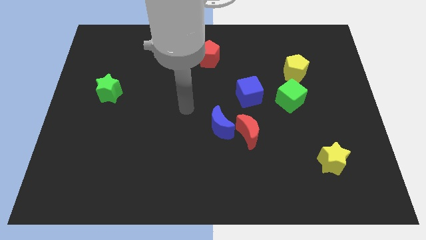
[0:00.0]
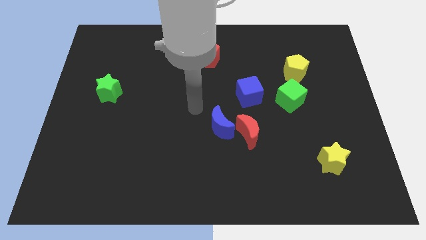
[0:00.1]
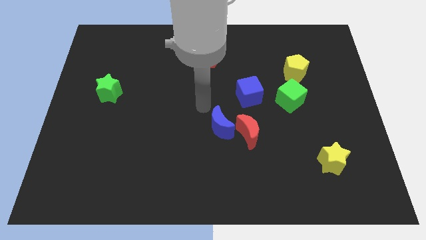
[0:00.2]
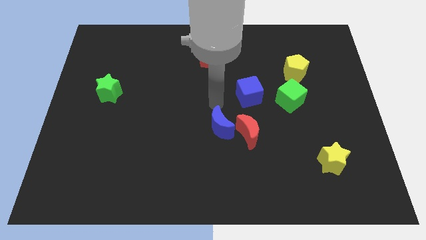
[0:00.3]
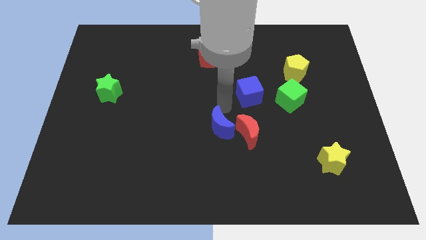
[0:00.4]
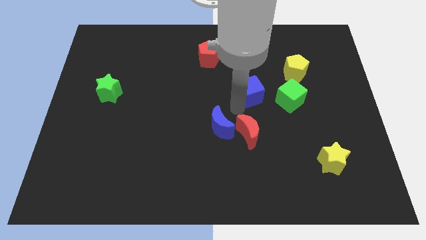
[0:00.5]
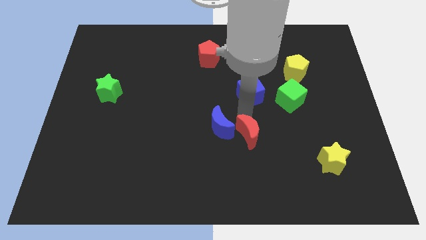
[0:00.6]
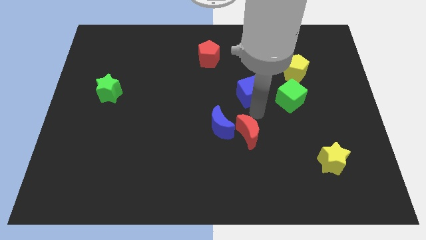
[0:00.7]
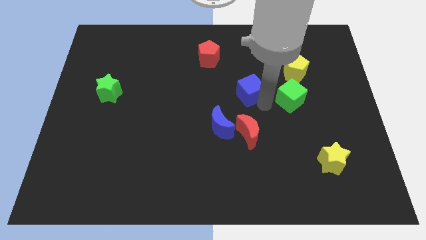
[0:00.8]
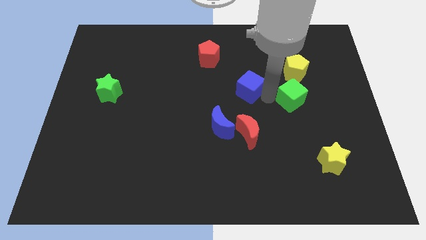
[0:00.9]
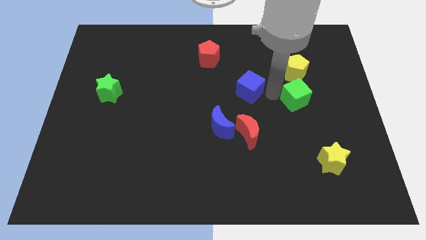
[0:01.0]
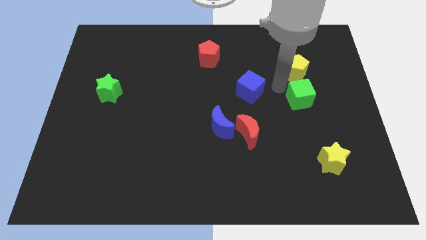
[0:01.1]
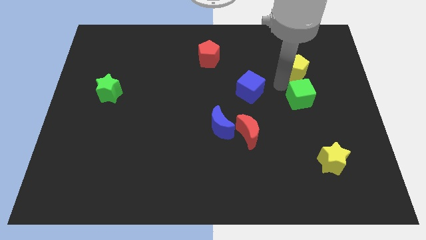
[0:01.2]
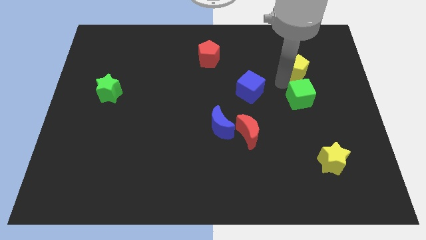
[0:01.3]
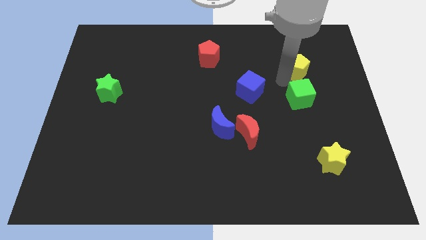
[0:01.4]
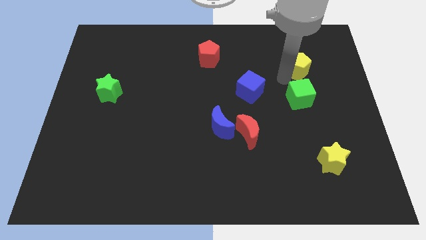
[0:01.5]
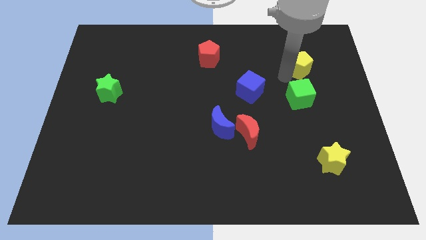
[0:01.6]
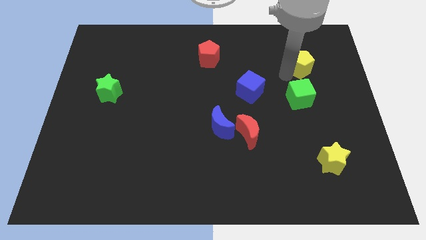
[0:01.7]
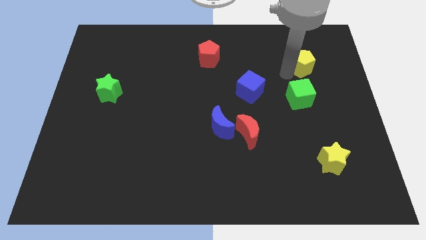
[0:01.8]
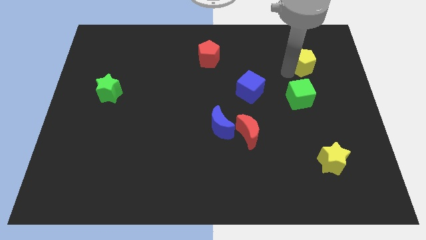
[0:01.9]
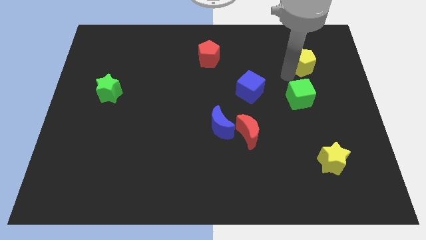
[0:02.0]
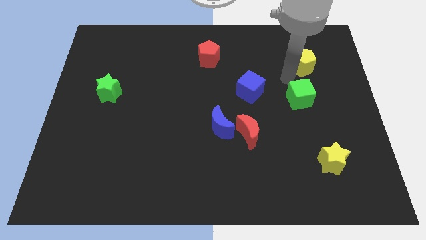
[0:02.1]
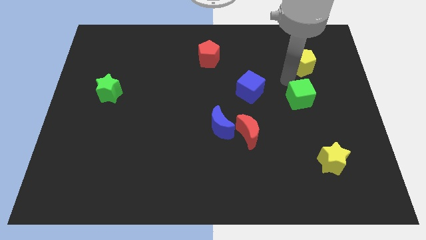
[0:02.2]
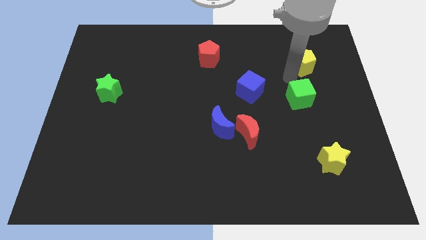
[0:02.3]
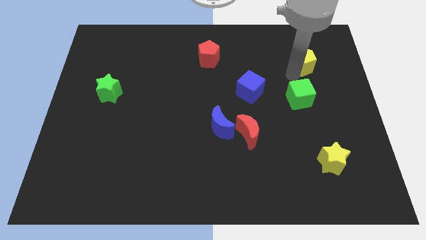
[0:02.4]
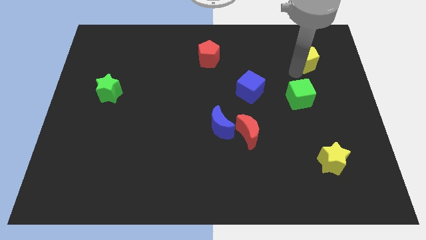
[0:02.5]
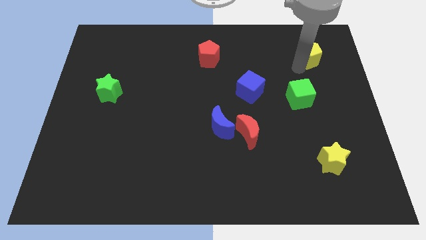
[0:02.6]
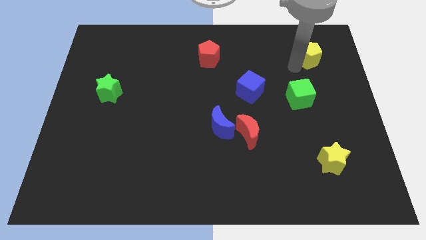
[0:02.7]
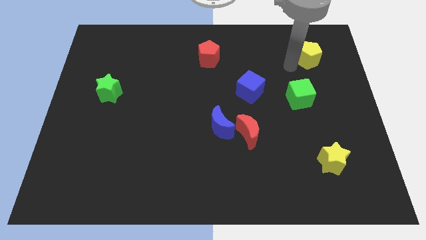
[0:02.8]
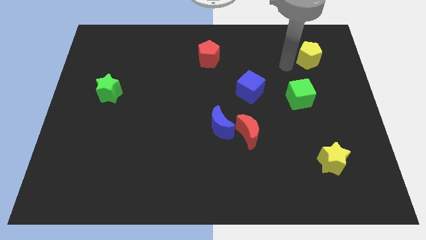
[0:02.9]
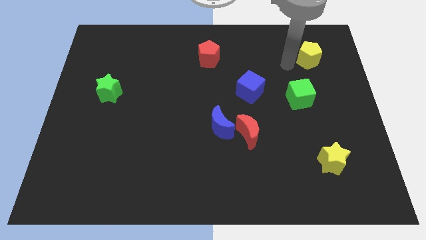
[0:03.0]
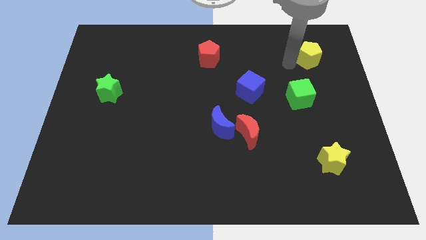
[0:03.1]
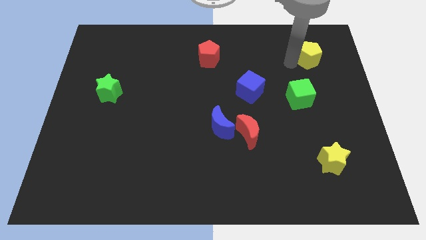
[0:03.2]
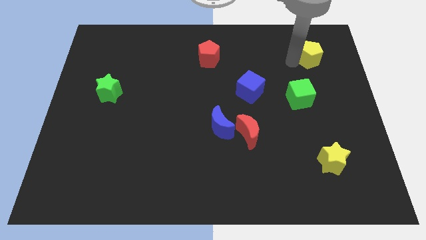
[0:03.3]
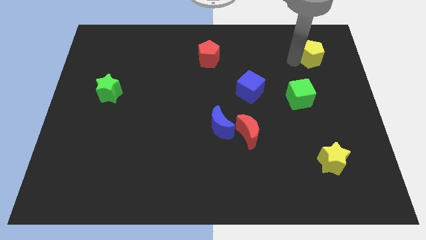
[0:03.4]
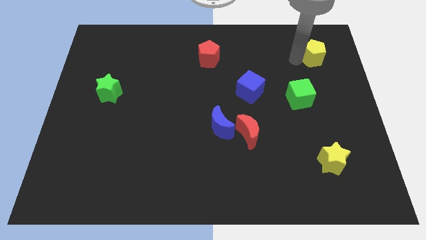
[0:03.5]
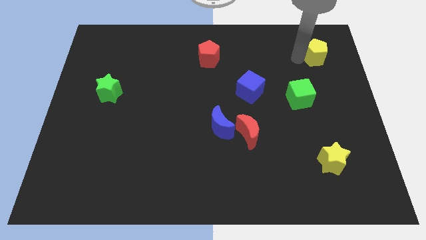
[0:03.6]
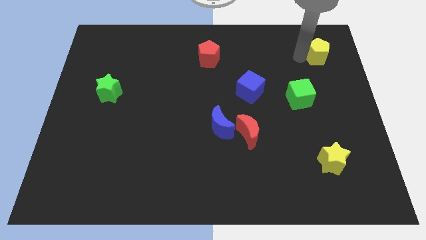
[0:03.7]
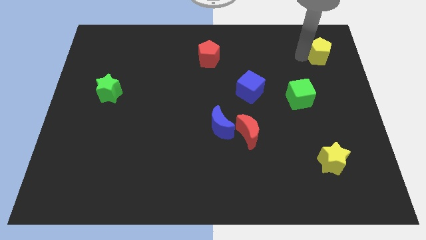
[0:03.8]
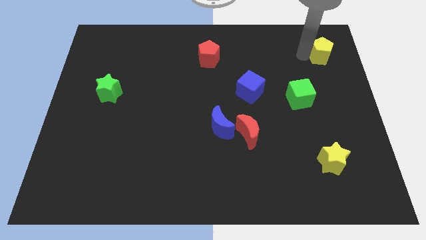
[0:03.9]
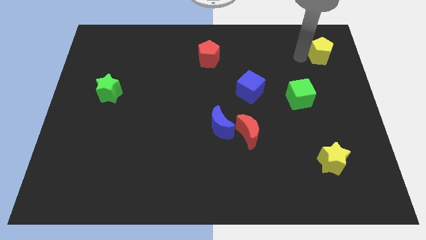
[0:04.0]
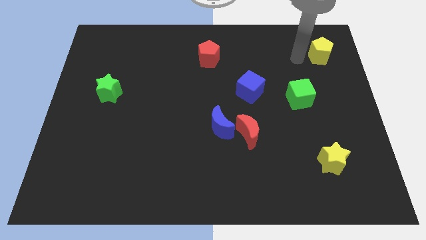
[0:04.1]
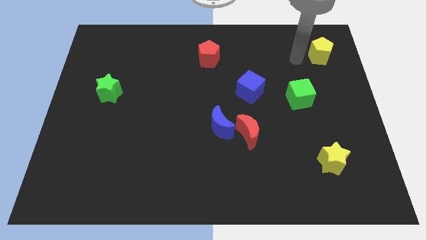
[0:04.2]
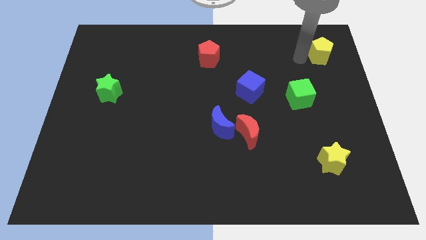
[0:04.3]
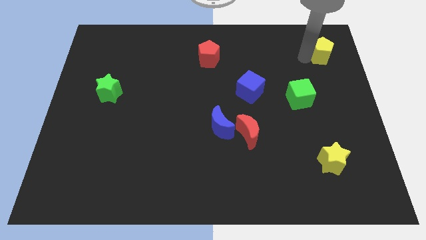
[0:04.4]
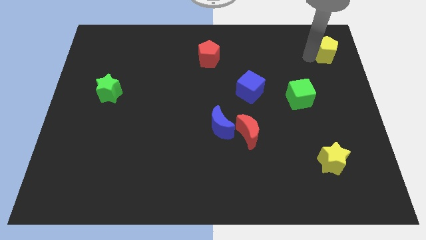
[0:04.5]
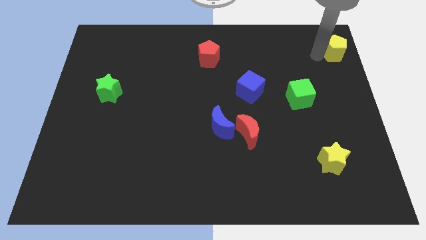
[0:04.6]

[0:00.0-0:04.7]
move the yellow pentagon to the top right corner

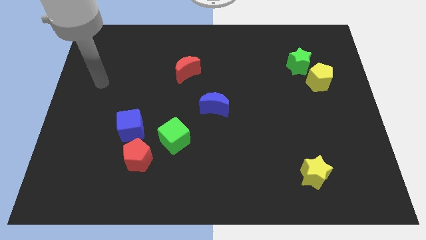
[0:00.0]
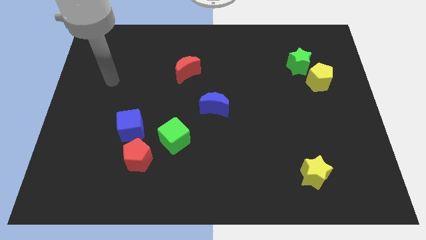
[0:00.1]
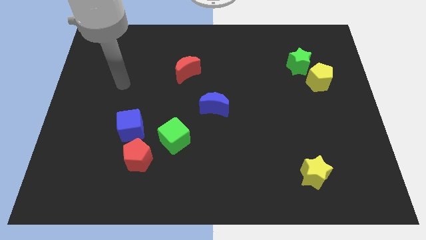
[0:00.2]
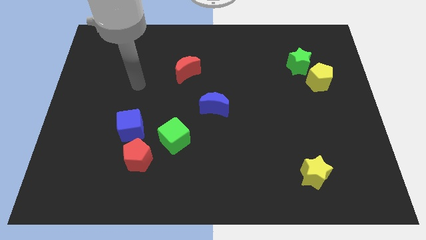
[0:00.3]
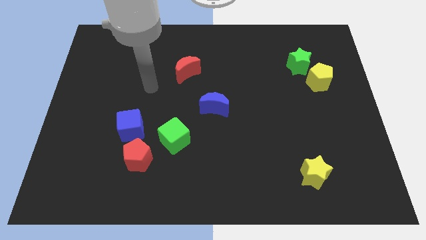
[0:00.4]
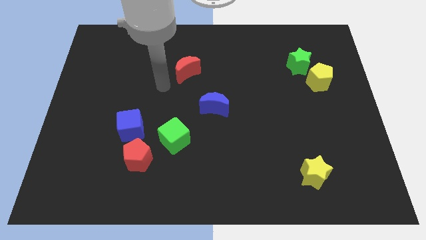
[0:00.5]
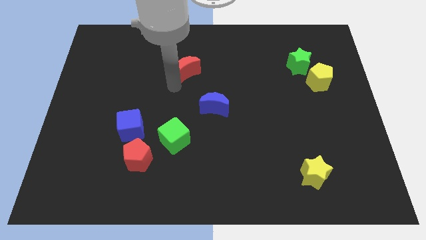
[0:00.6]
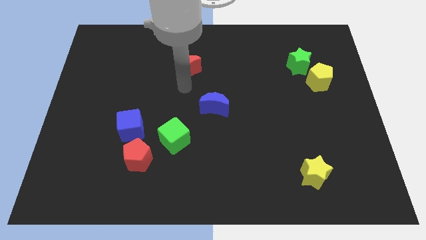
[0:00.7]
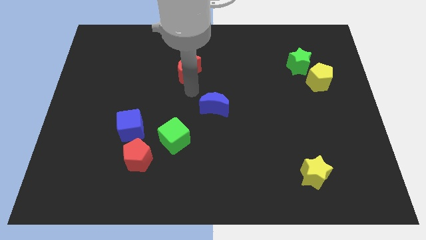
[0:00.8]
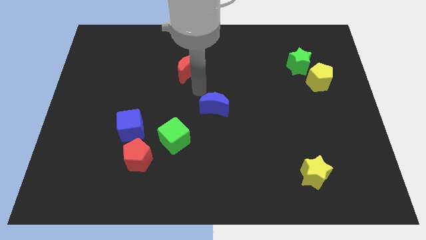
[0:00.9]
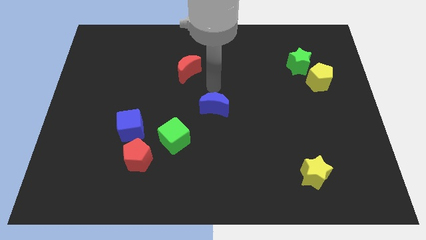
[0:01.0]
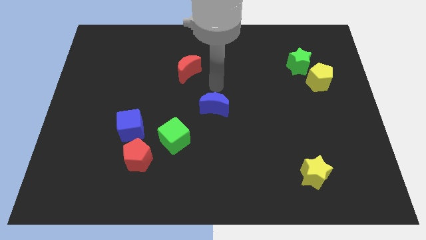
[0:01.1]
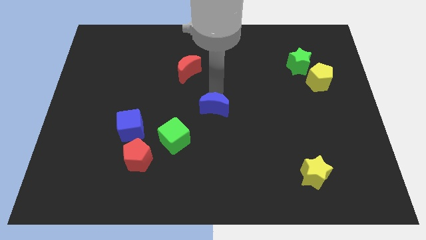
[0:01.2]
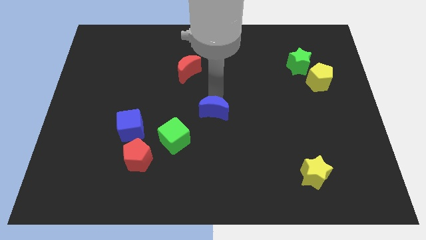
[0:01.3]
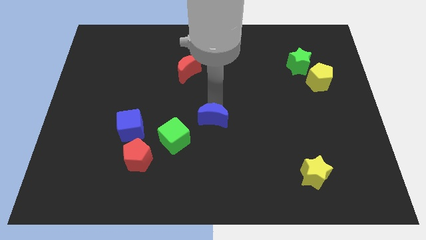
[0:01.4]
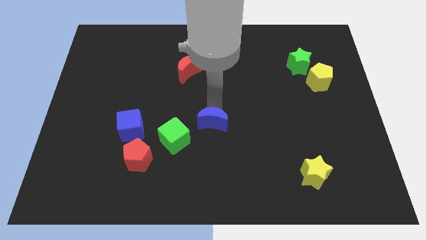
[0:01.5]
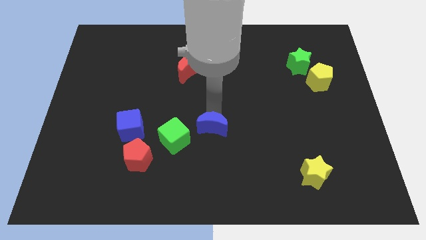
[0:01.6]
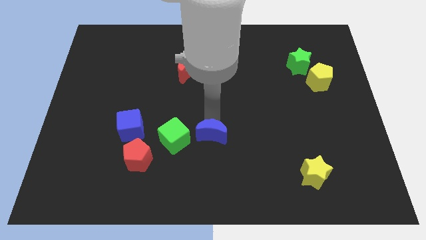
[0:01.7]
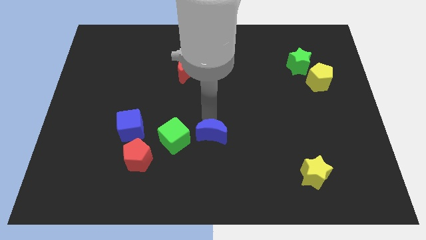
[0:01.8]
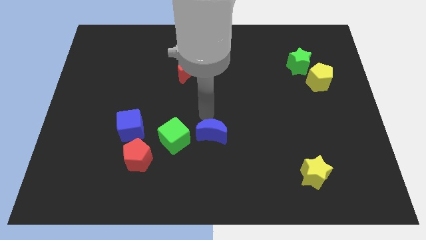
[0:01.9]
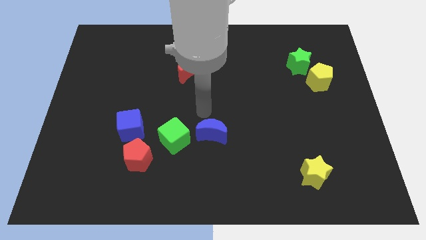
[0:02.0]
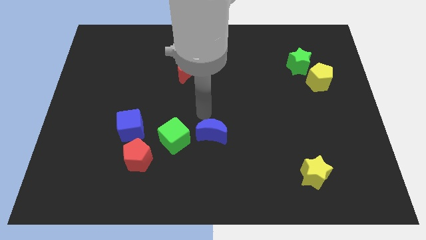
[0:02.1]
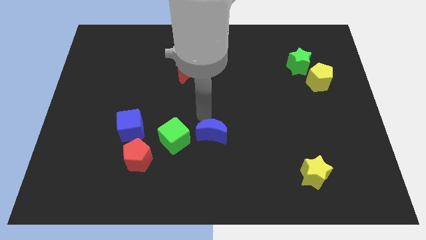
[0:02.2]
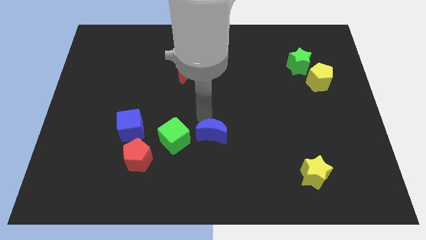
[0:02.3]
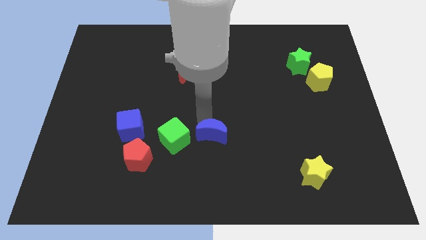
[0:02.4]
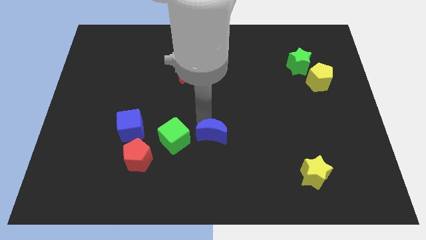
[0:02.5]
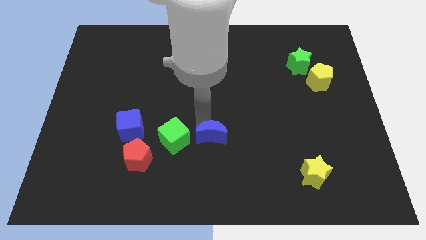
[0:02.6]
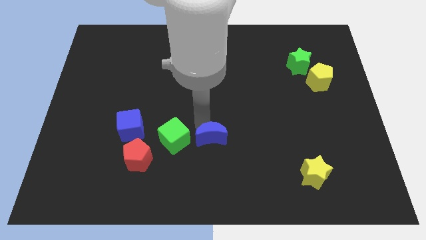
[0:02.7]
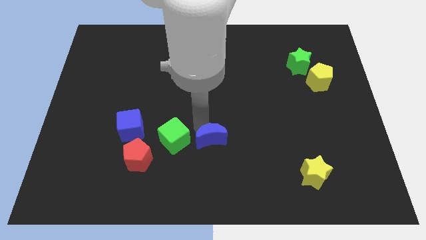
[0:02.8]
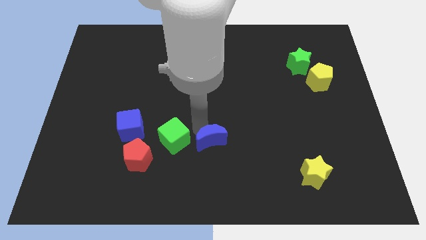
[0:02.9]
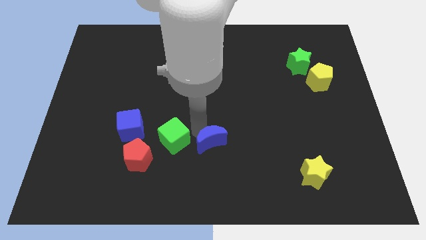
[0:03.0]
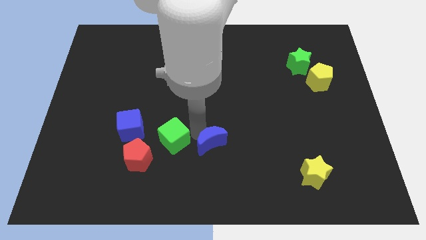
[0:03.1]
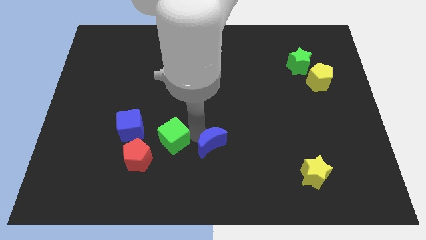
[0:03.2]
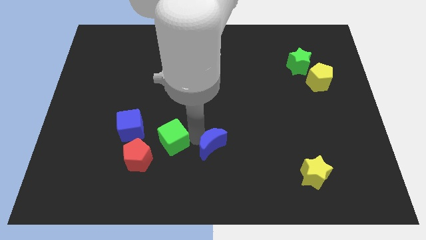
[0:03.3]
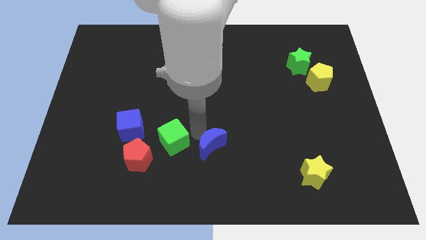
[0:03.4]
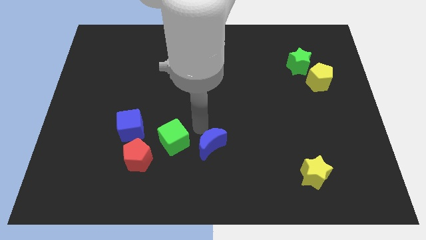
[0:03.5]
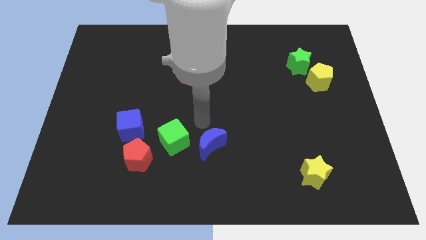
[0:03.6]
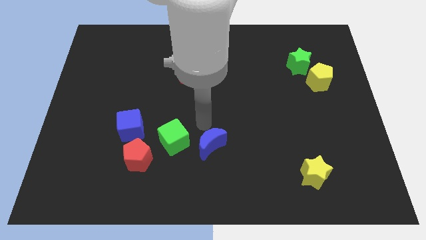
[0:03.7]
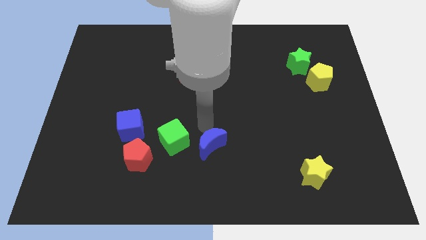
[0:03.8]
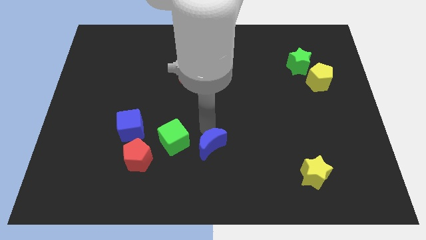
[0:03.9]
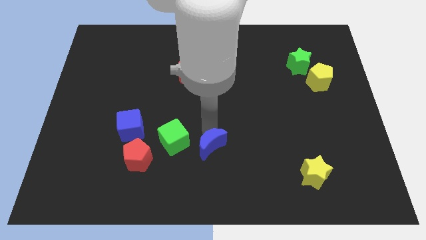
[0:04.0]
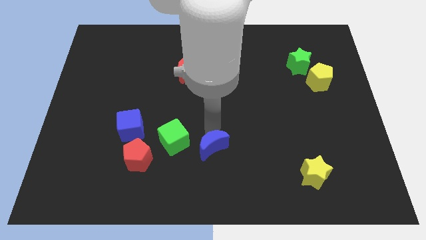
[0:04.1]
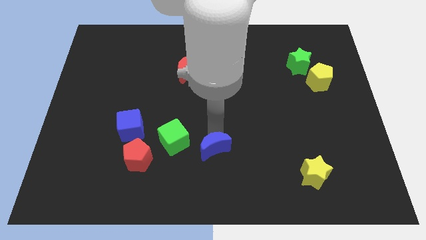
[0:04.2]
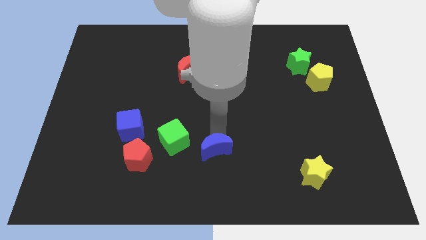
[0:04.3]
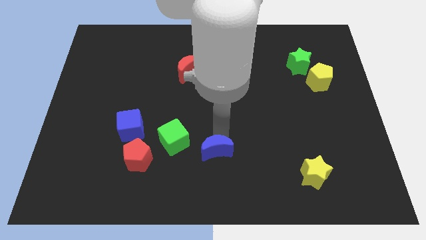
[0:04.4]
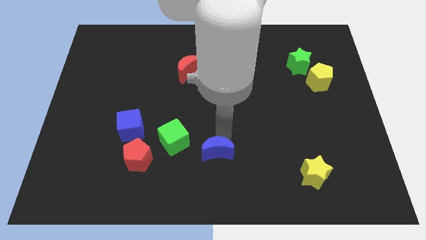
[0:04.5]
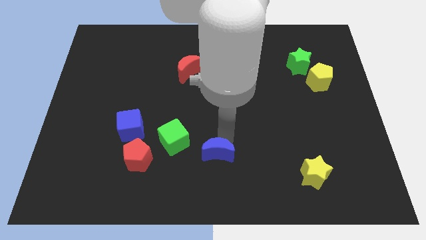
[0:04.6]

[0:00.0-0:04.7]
push the blue moon to the bottom
